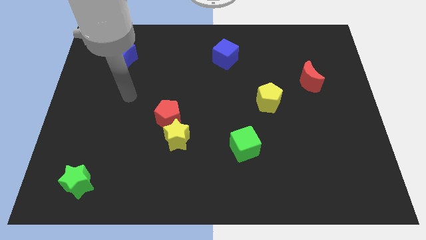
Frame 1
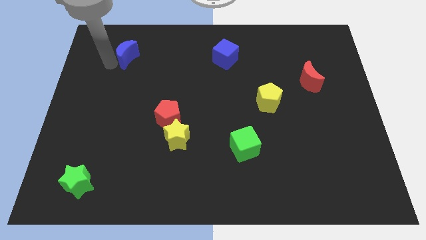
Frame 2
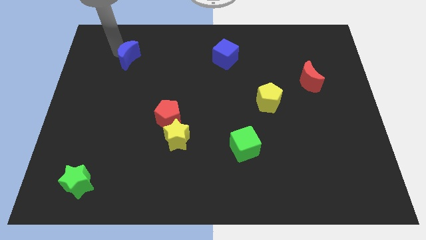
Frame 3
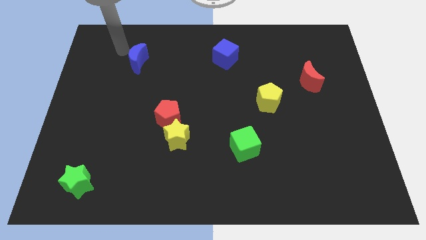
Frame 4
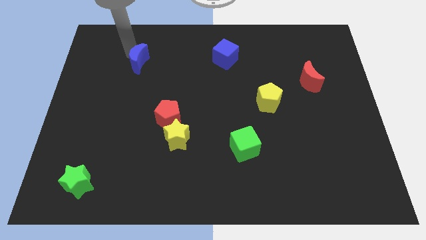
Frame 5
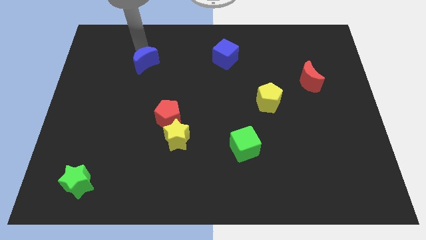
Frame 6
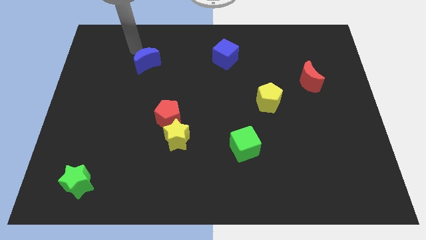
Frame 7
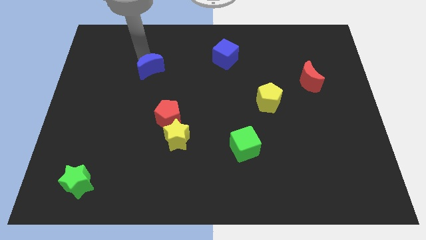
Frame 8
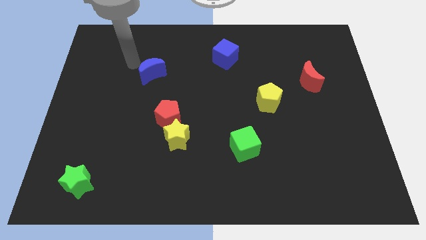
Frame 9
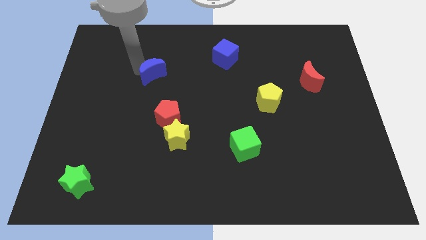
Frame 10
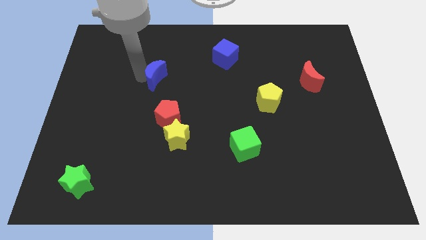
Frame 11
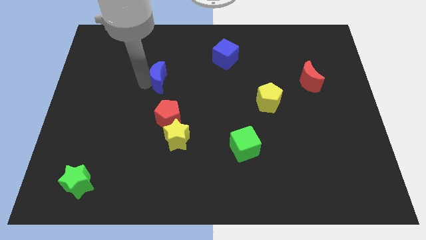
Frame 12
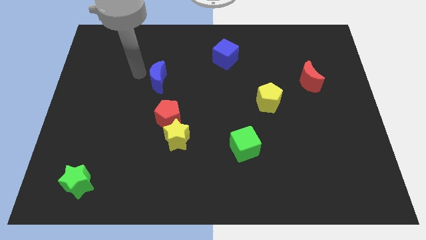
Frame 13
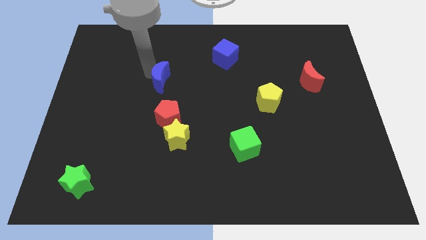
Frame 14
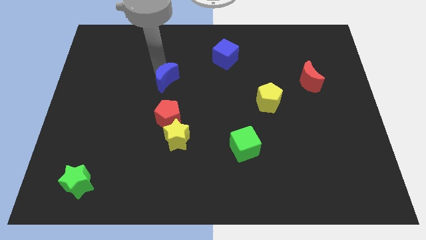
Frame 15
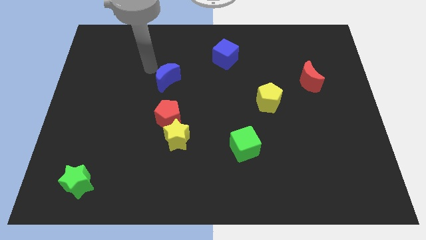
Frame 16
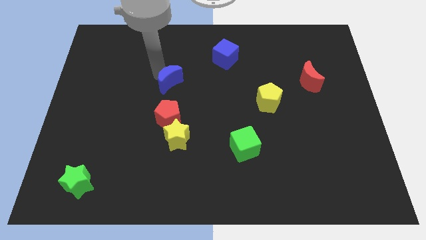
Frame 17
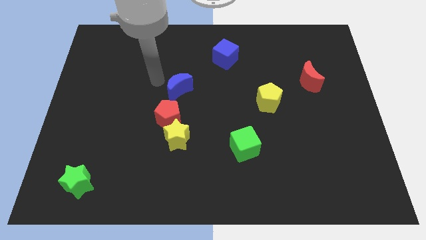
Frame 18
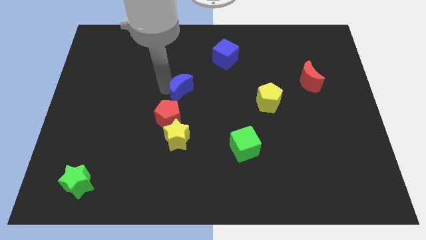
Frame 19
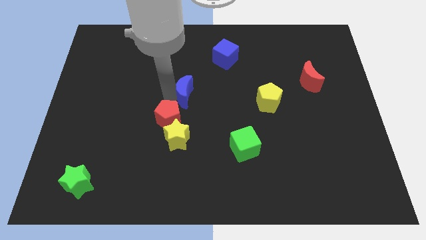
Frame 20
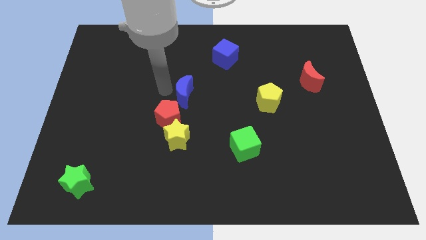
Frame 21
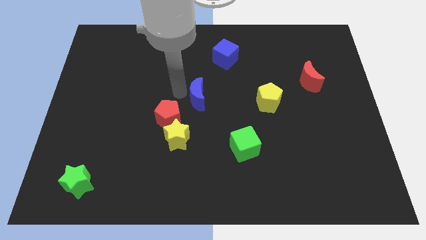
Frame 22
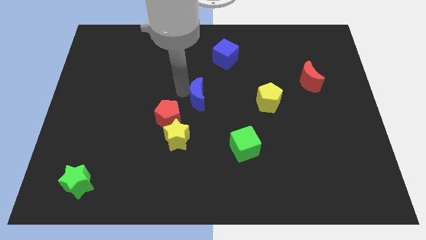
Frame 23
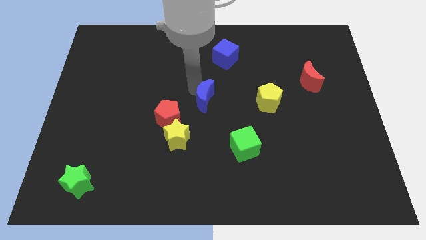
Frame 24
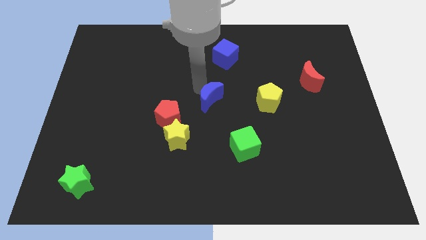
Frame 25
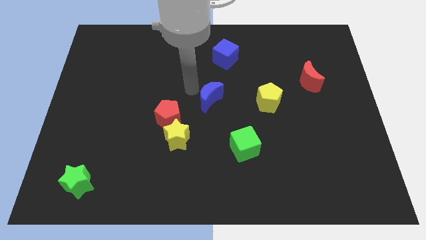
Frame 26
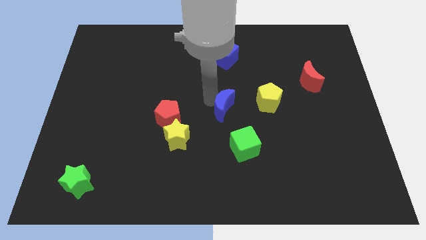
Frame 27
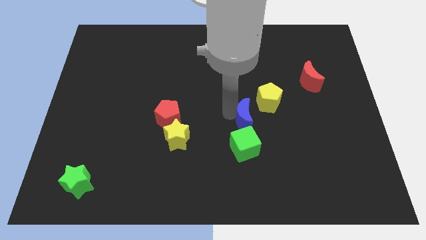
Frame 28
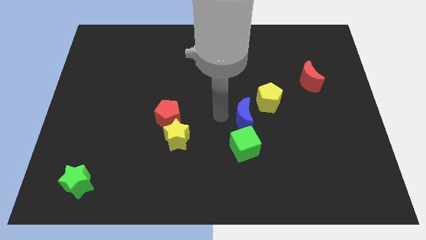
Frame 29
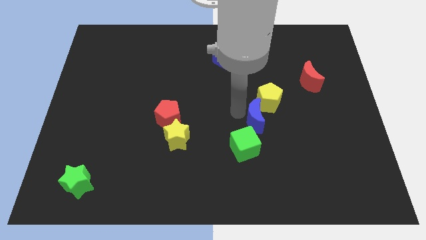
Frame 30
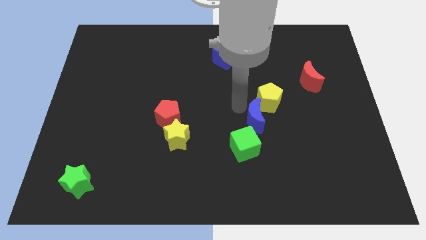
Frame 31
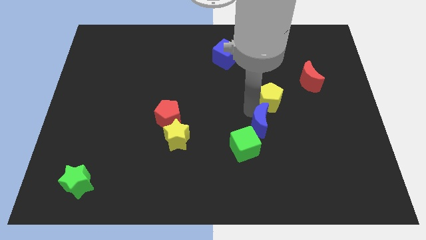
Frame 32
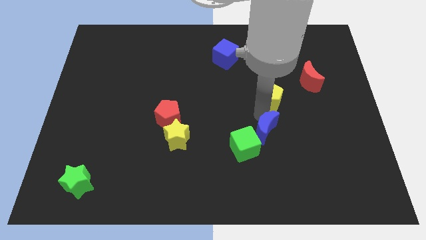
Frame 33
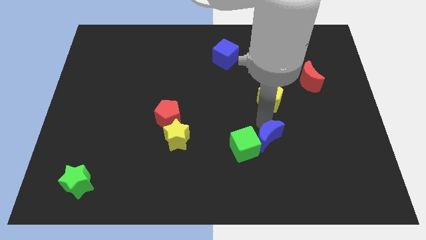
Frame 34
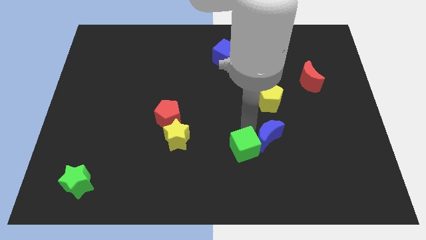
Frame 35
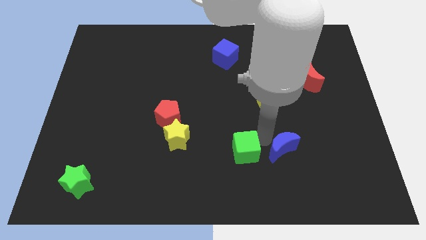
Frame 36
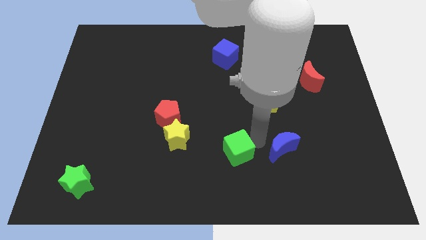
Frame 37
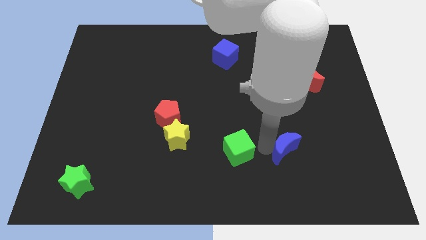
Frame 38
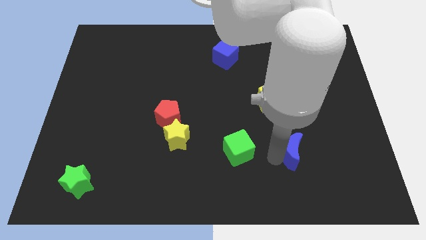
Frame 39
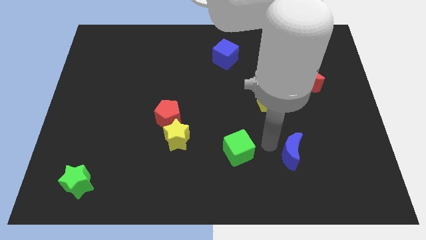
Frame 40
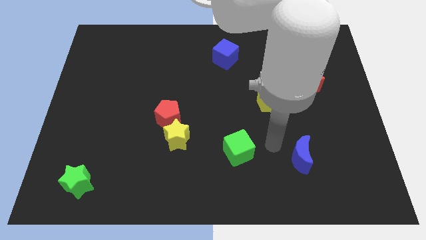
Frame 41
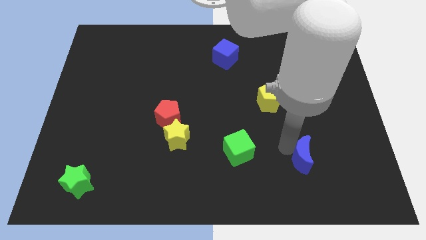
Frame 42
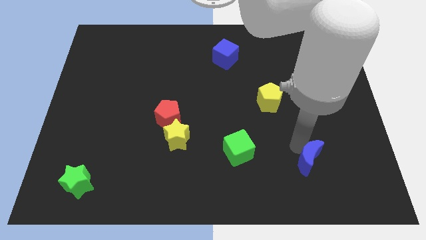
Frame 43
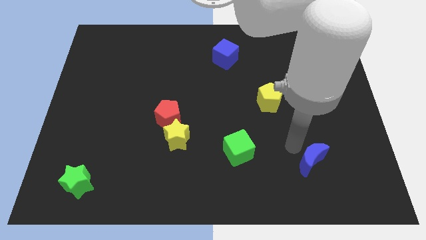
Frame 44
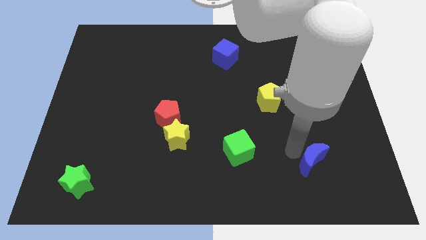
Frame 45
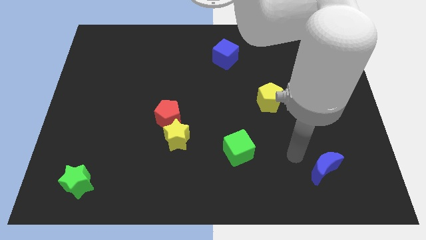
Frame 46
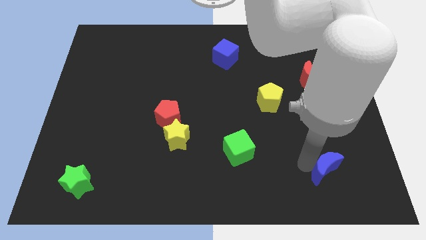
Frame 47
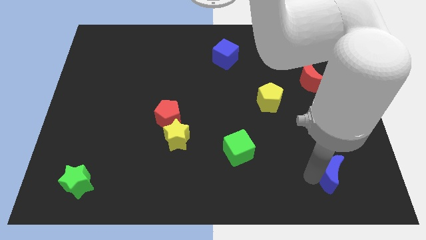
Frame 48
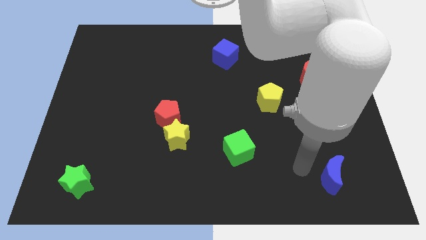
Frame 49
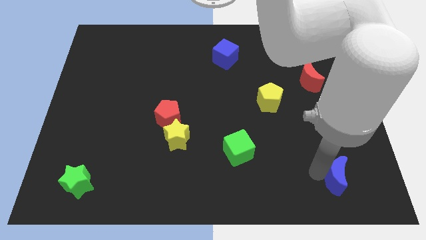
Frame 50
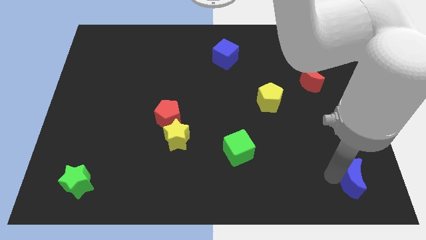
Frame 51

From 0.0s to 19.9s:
push the blue moon to the bottom right

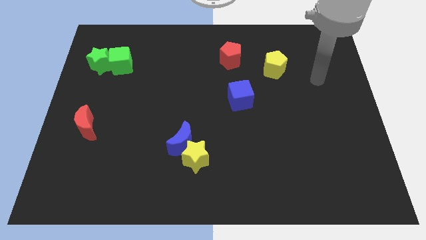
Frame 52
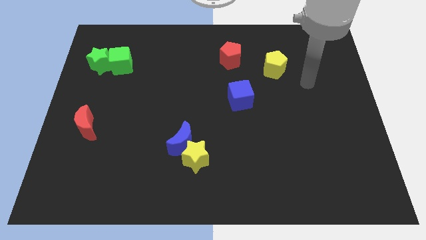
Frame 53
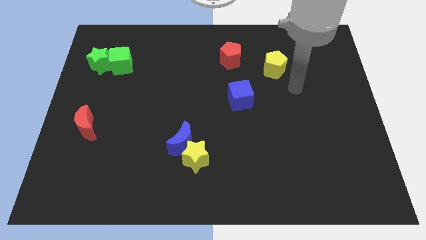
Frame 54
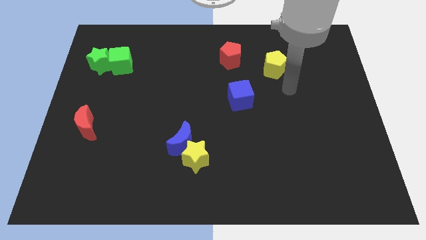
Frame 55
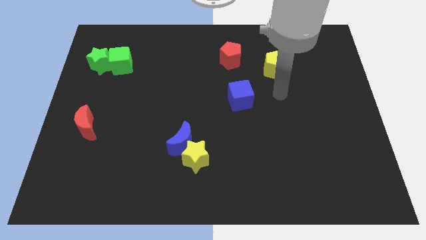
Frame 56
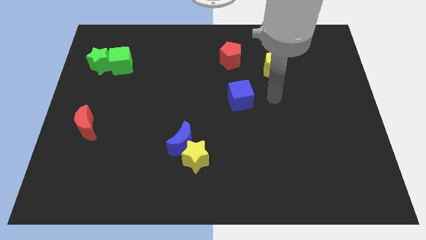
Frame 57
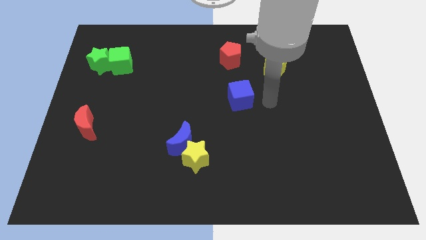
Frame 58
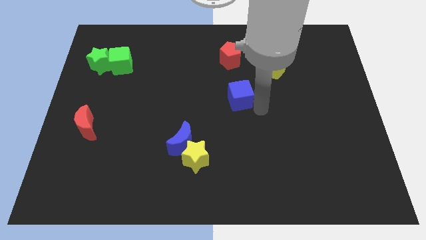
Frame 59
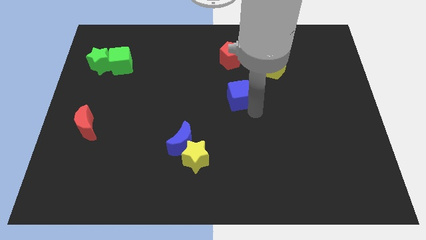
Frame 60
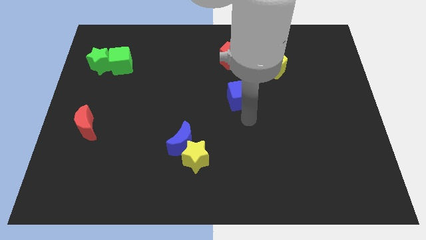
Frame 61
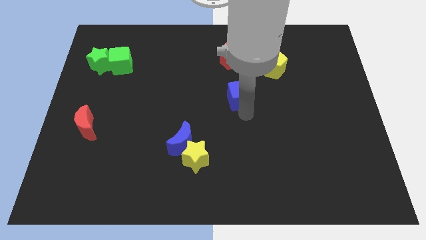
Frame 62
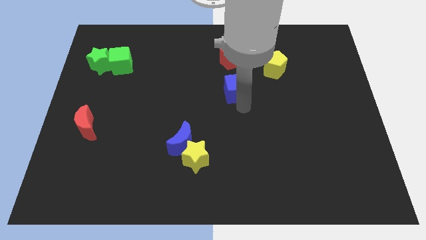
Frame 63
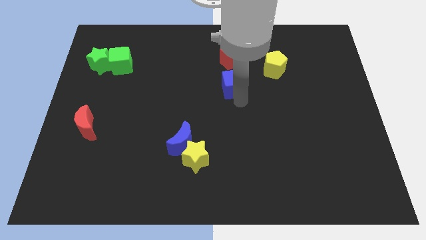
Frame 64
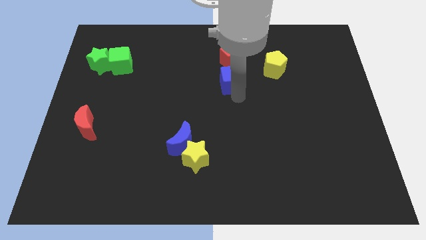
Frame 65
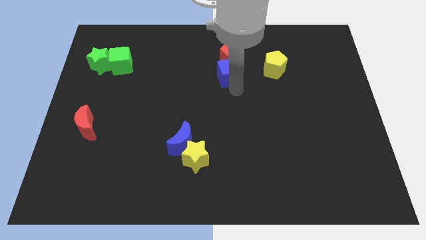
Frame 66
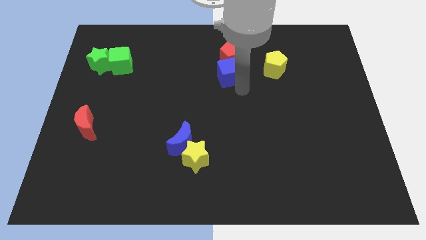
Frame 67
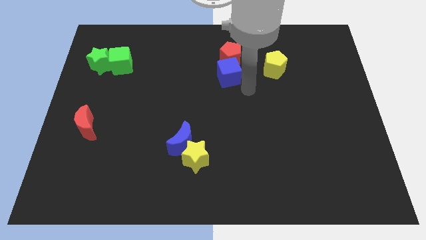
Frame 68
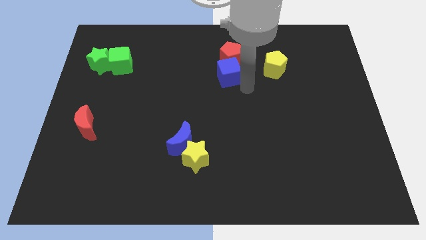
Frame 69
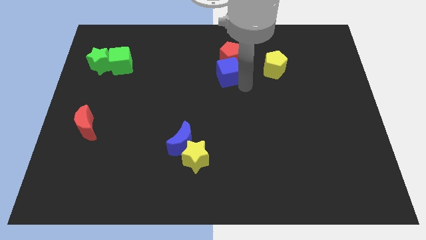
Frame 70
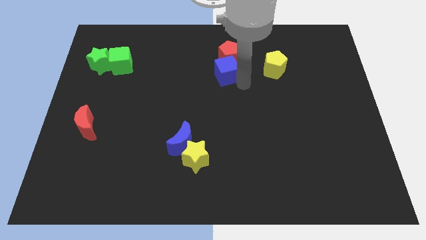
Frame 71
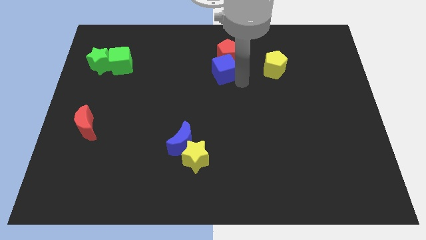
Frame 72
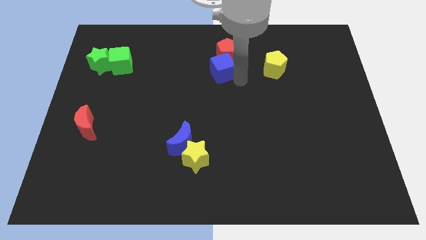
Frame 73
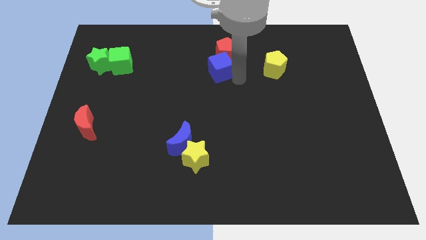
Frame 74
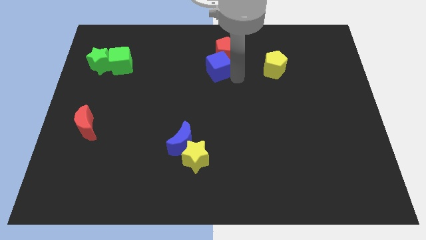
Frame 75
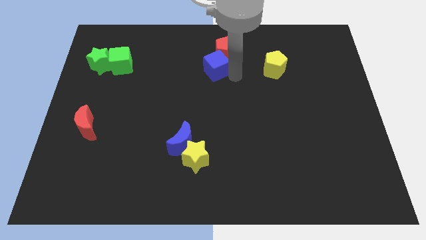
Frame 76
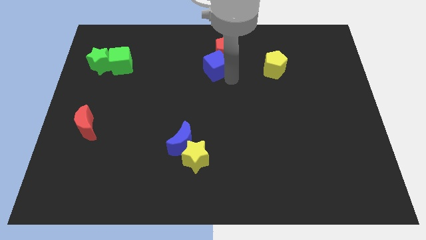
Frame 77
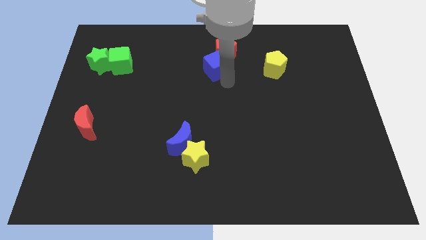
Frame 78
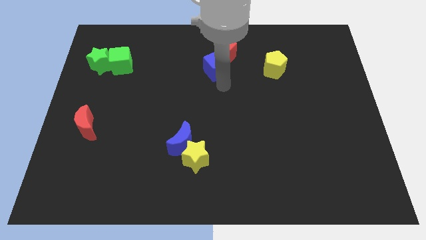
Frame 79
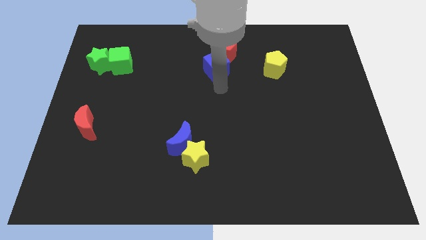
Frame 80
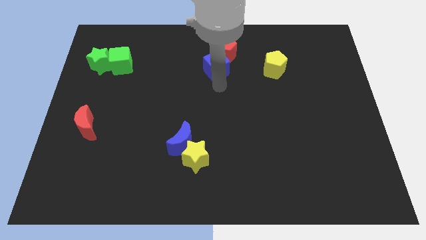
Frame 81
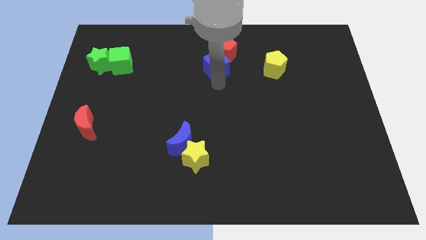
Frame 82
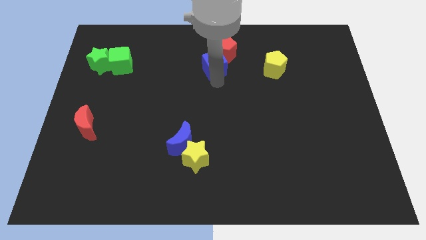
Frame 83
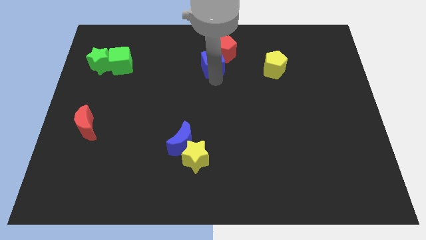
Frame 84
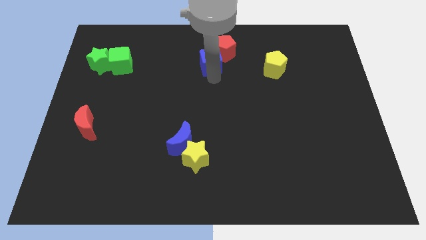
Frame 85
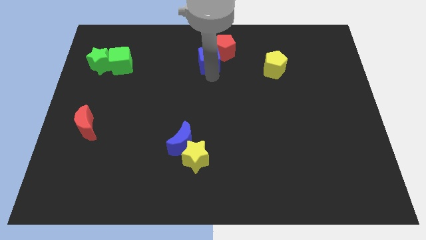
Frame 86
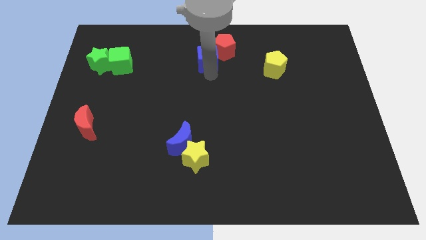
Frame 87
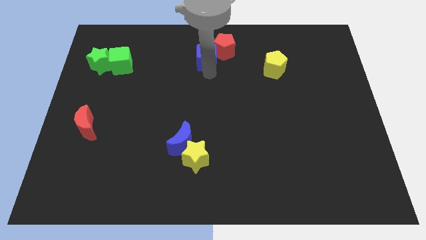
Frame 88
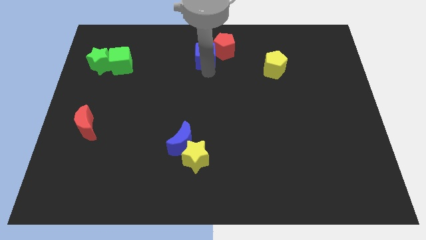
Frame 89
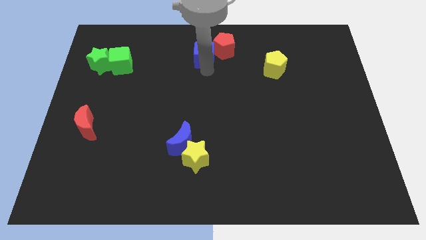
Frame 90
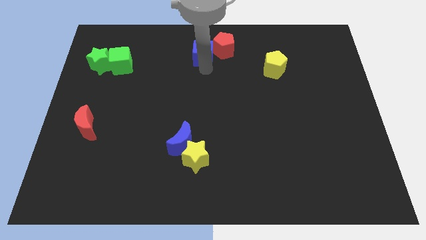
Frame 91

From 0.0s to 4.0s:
push the blue cube to the top side
